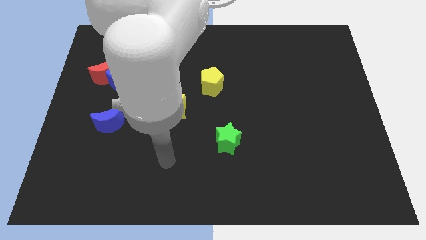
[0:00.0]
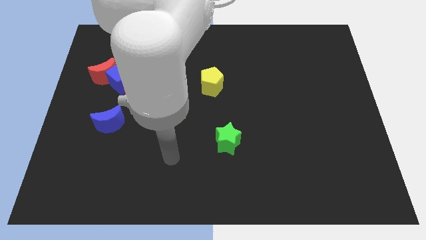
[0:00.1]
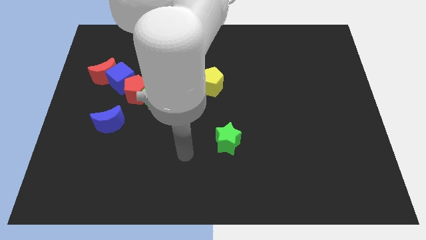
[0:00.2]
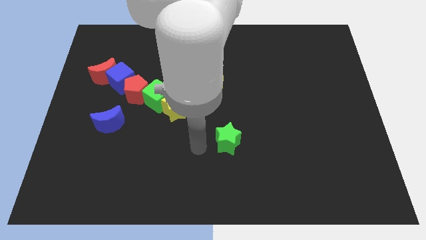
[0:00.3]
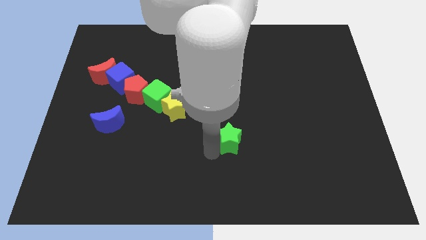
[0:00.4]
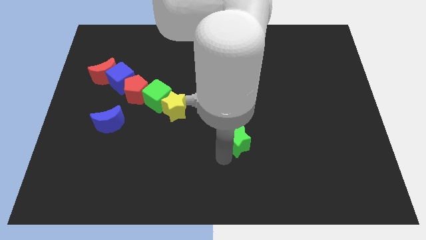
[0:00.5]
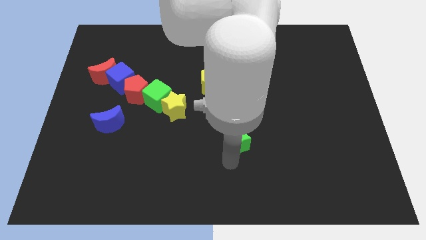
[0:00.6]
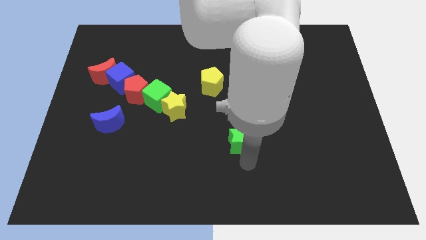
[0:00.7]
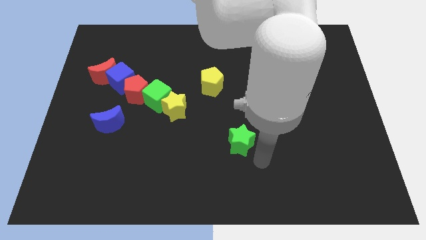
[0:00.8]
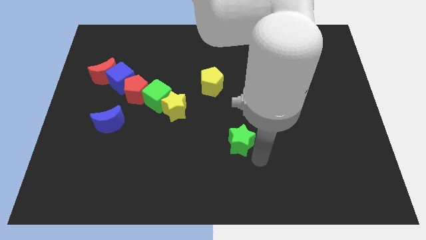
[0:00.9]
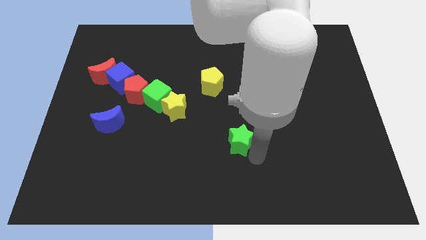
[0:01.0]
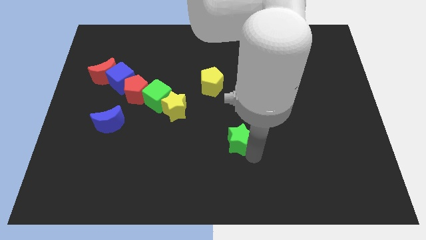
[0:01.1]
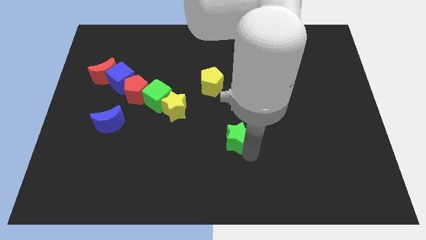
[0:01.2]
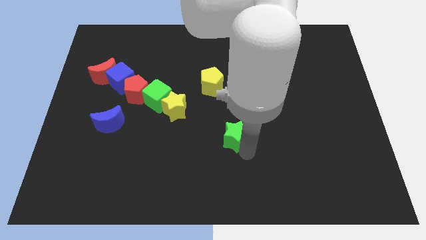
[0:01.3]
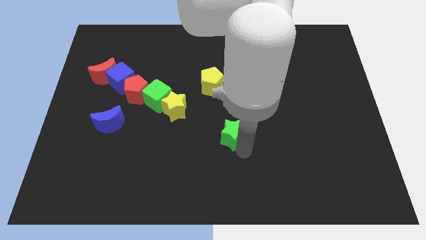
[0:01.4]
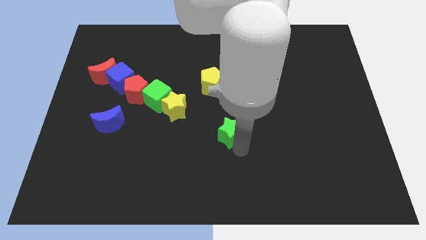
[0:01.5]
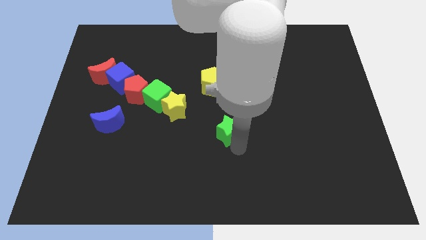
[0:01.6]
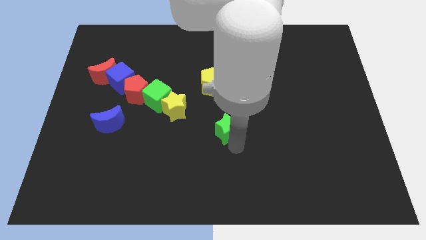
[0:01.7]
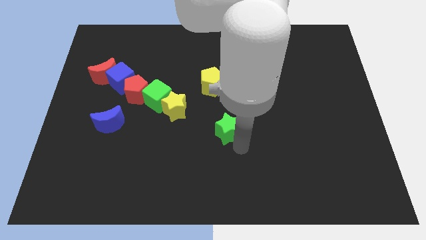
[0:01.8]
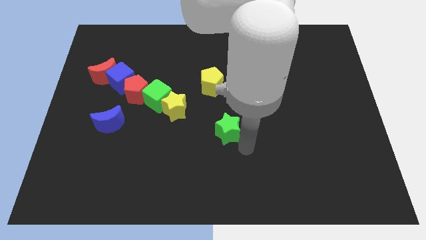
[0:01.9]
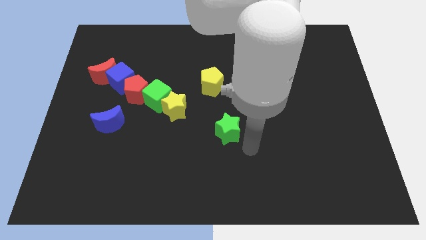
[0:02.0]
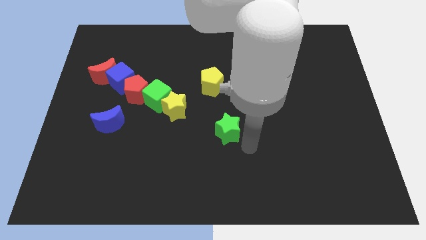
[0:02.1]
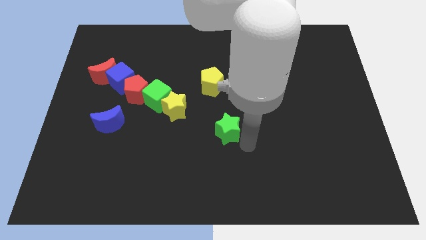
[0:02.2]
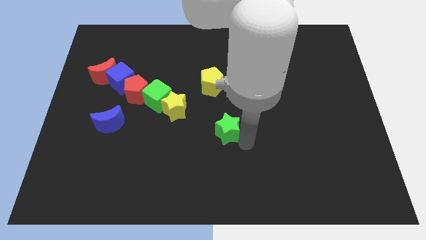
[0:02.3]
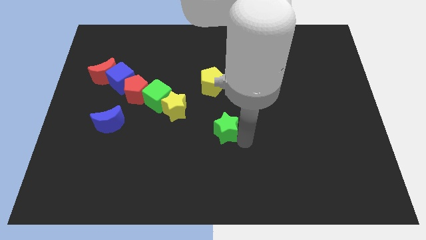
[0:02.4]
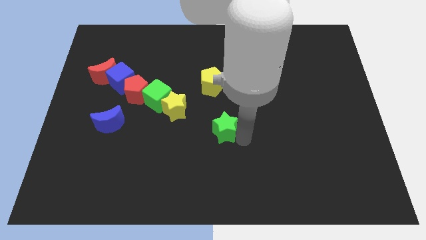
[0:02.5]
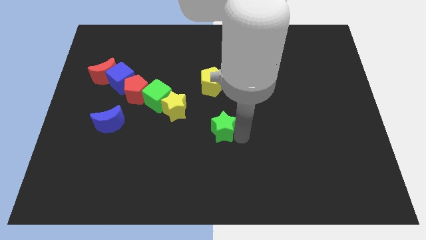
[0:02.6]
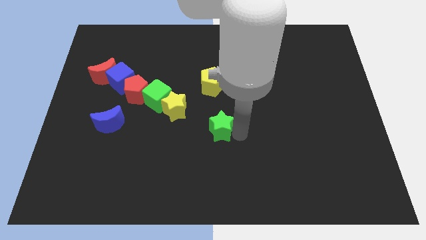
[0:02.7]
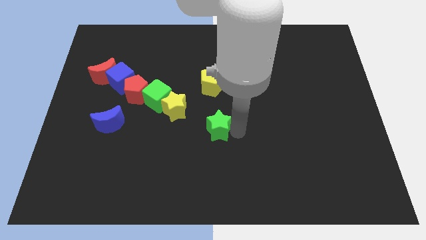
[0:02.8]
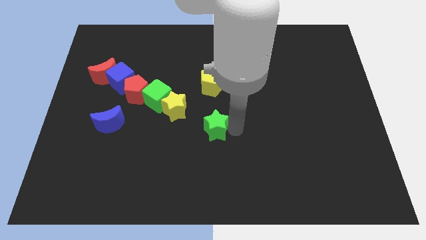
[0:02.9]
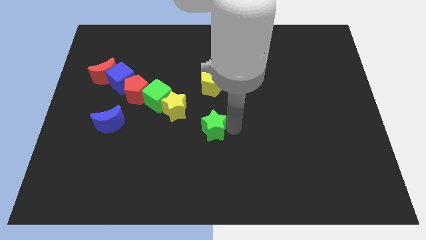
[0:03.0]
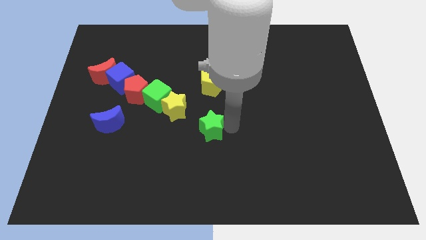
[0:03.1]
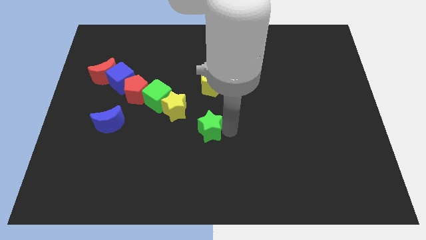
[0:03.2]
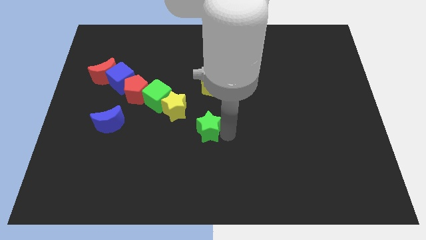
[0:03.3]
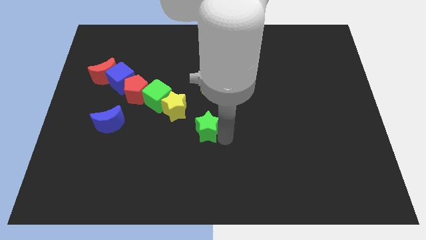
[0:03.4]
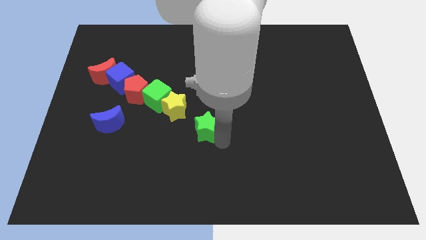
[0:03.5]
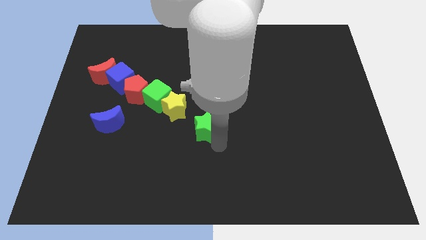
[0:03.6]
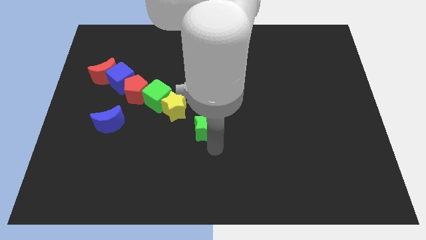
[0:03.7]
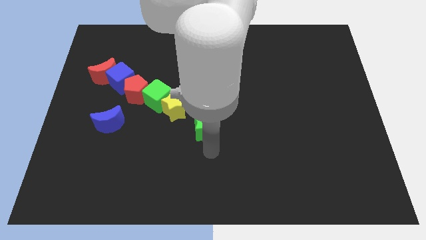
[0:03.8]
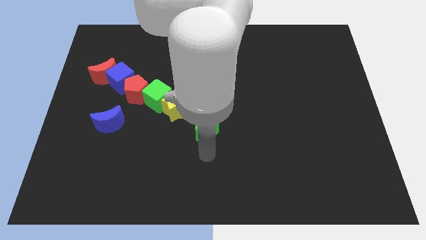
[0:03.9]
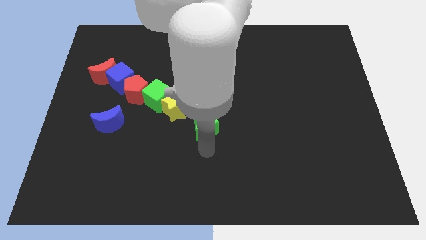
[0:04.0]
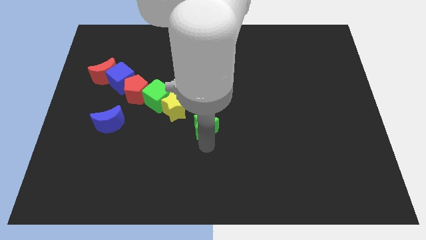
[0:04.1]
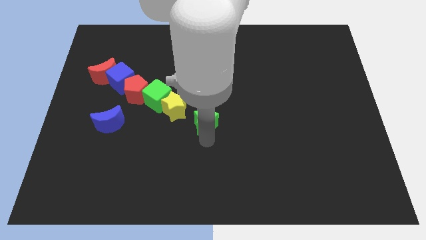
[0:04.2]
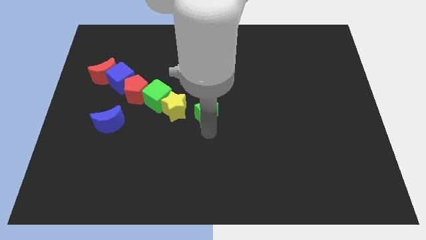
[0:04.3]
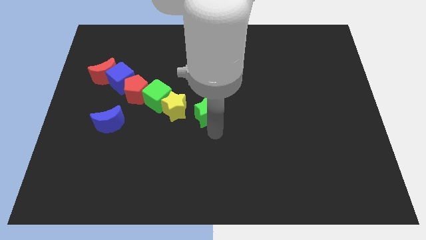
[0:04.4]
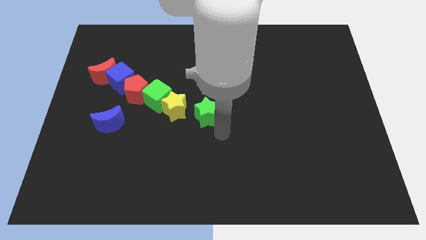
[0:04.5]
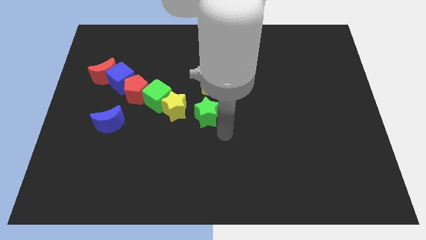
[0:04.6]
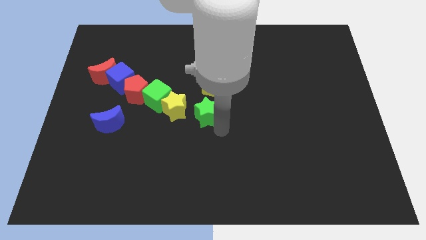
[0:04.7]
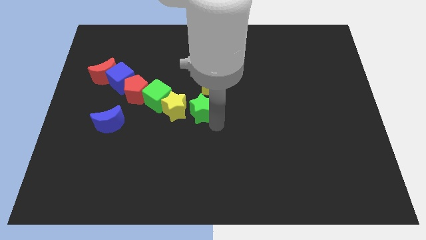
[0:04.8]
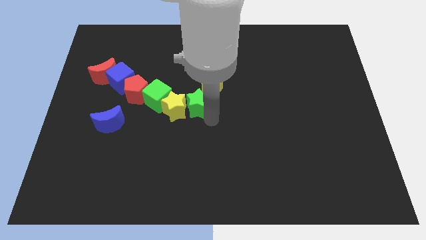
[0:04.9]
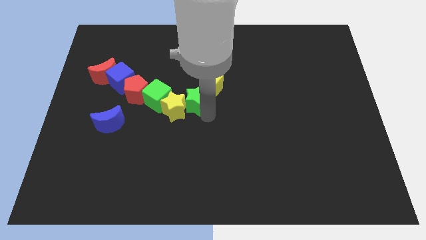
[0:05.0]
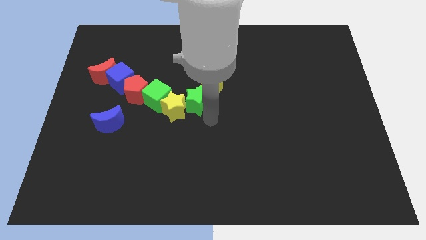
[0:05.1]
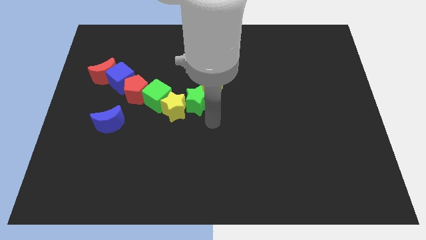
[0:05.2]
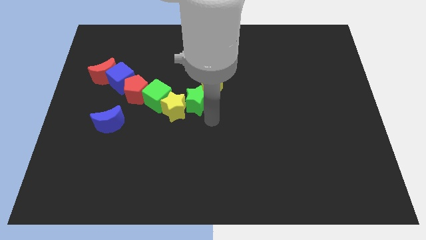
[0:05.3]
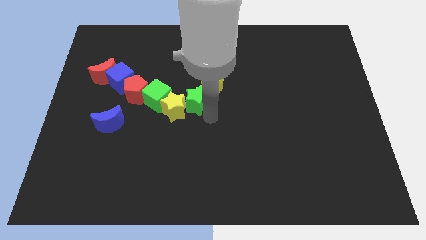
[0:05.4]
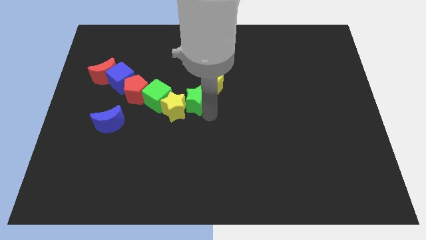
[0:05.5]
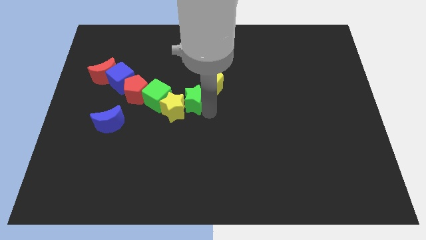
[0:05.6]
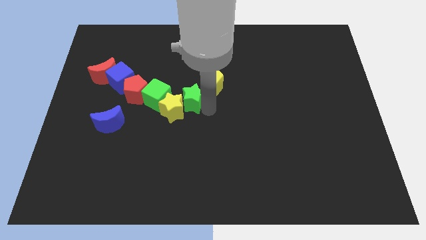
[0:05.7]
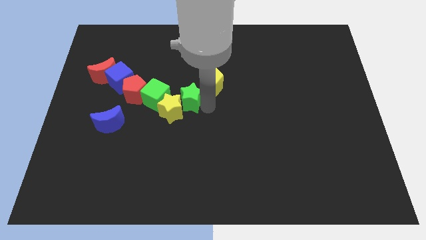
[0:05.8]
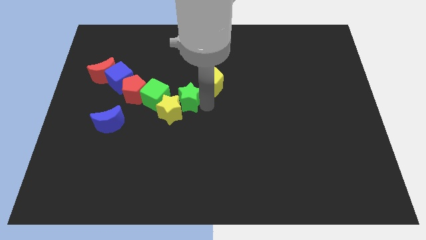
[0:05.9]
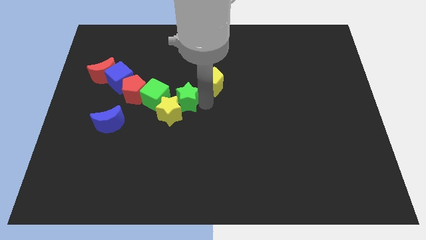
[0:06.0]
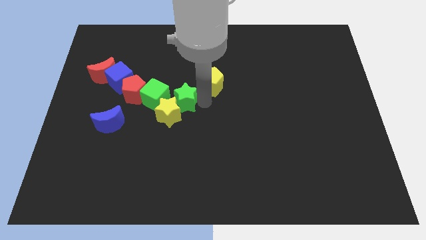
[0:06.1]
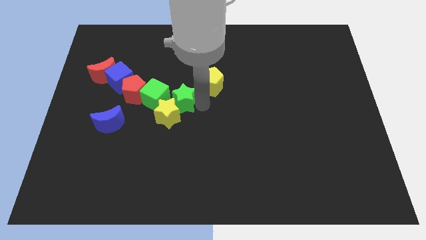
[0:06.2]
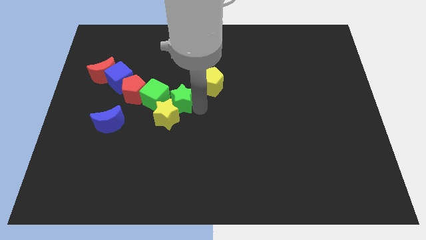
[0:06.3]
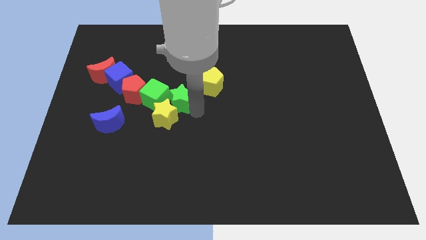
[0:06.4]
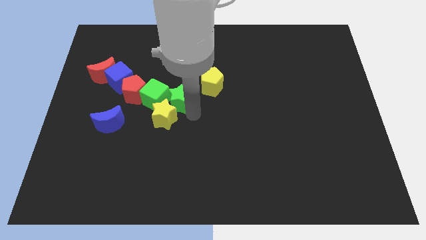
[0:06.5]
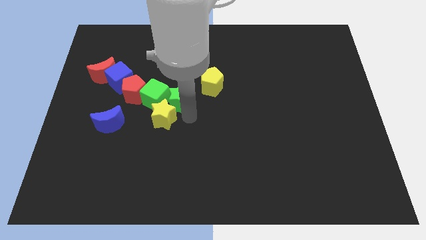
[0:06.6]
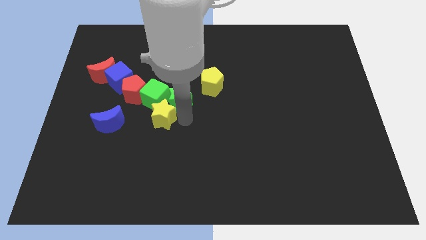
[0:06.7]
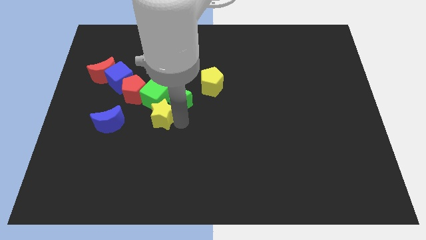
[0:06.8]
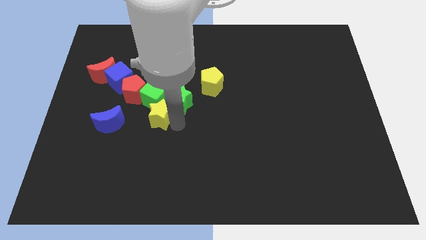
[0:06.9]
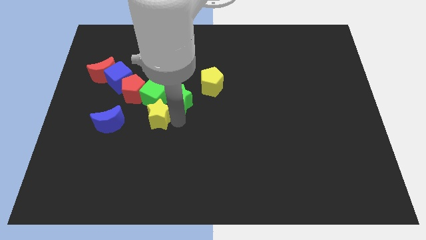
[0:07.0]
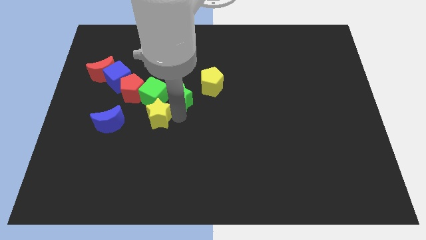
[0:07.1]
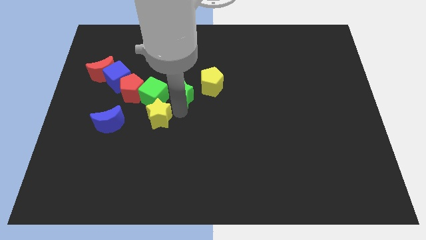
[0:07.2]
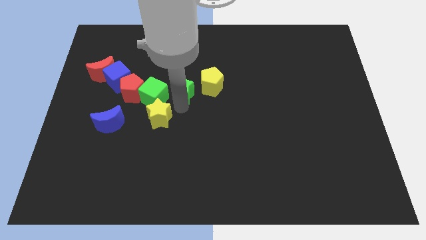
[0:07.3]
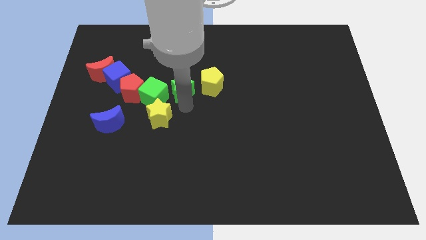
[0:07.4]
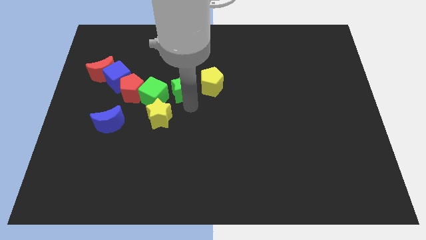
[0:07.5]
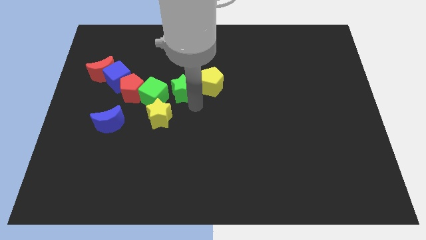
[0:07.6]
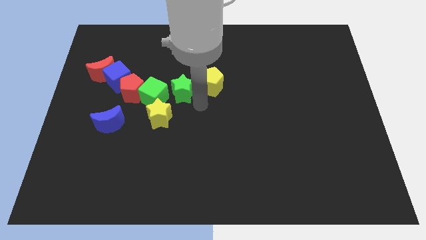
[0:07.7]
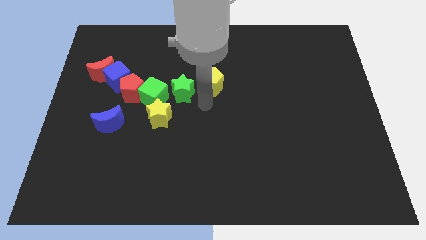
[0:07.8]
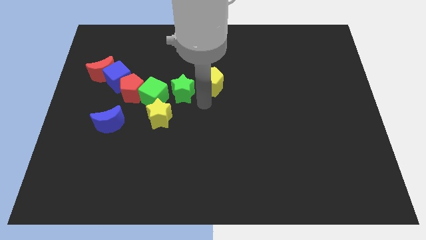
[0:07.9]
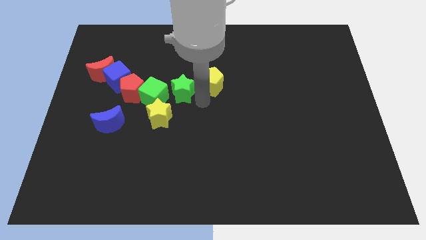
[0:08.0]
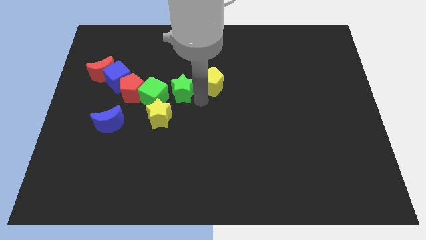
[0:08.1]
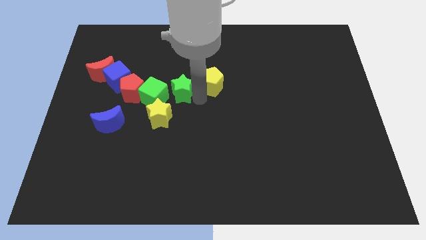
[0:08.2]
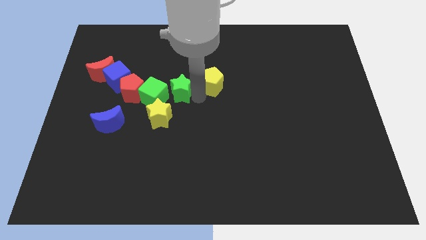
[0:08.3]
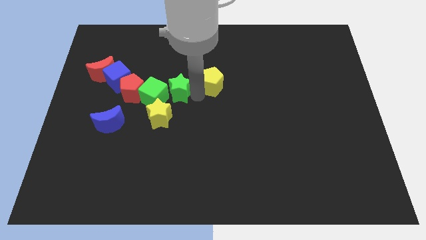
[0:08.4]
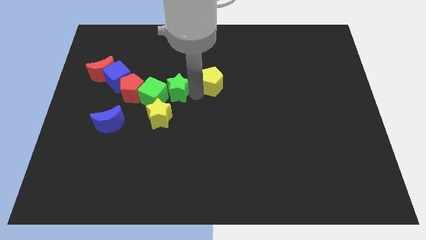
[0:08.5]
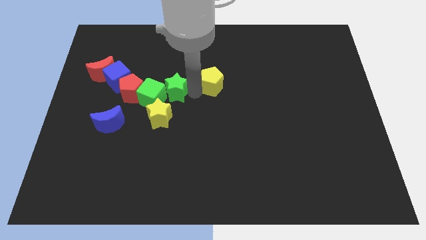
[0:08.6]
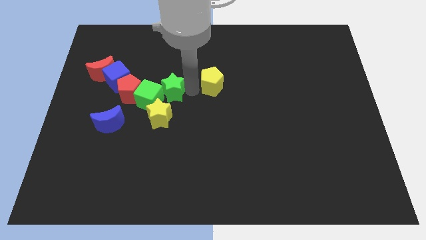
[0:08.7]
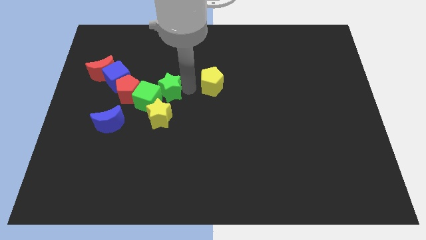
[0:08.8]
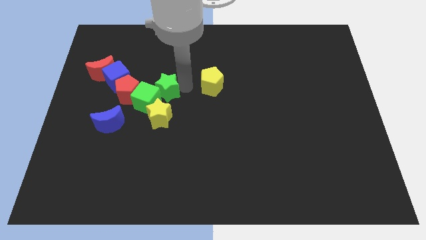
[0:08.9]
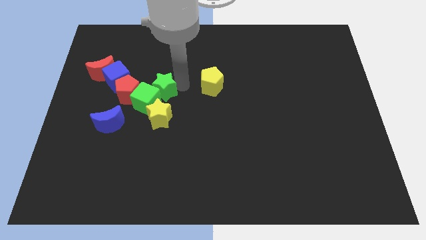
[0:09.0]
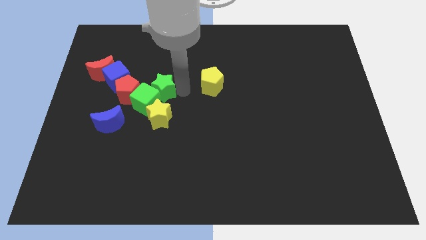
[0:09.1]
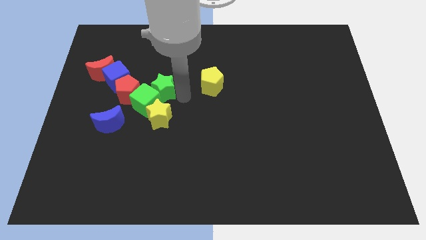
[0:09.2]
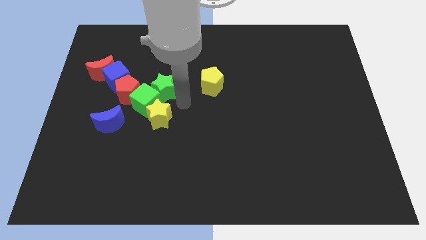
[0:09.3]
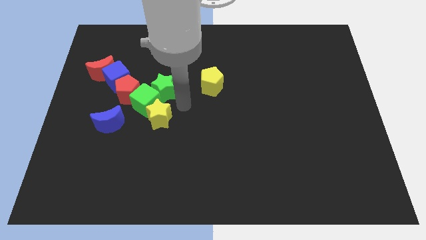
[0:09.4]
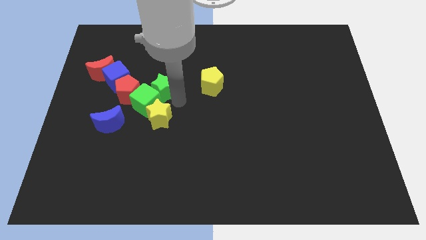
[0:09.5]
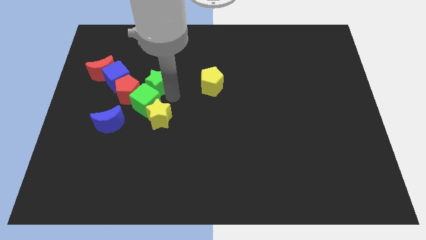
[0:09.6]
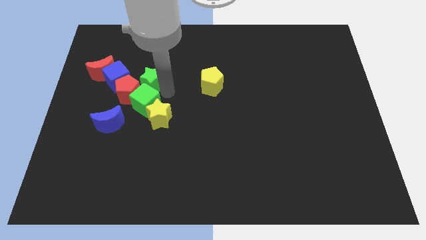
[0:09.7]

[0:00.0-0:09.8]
slide the green star right of the red moon
